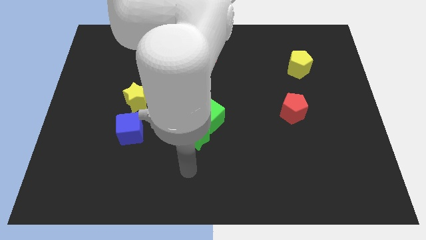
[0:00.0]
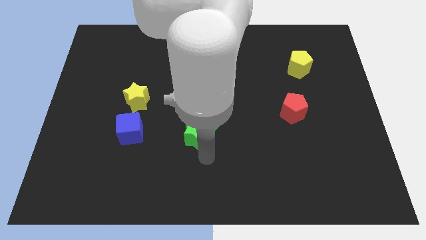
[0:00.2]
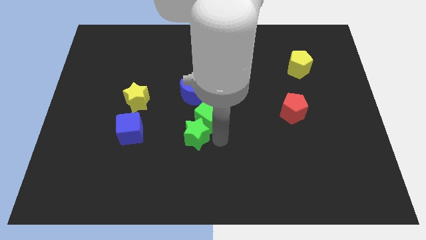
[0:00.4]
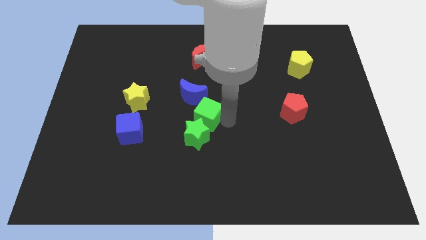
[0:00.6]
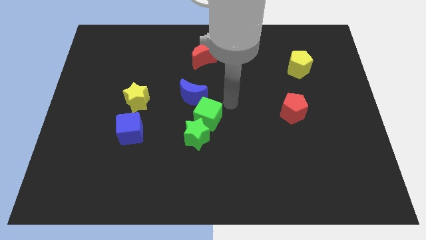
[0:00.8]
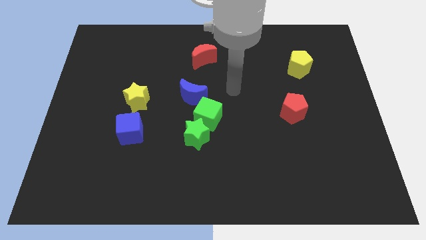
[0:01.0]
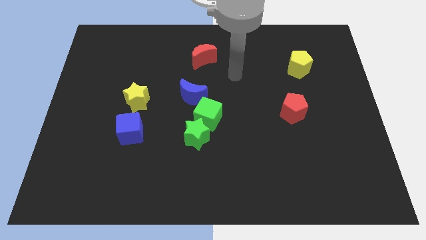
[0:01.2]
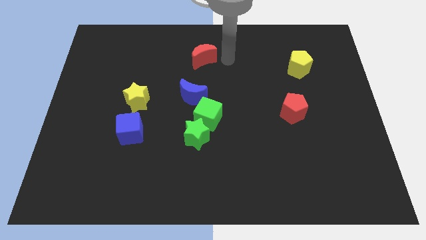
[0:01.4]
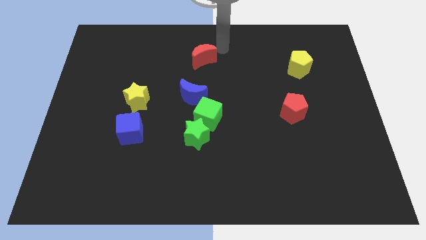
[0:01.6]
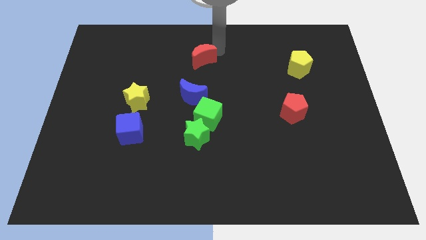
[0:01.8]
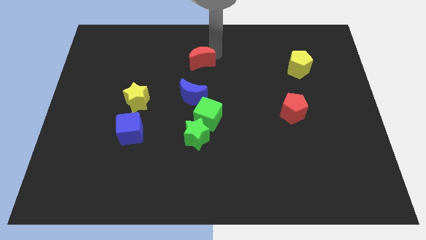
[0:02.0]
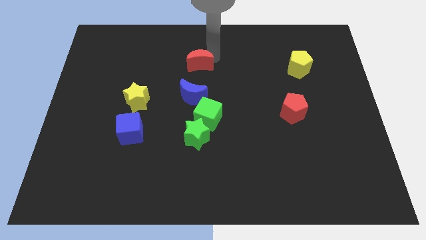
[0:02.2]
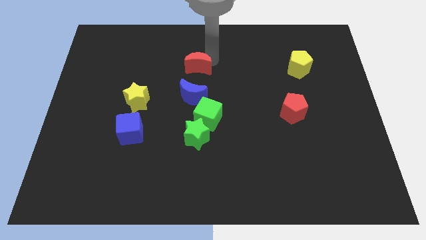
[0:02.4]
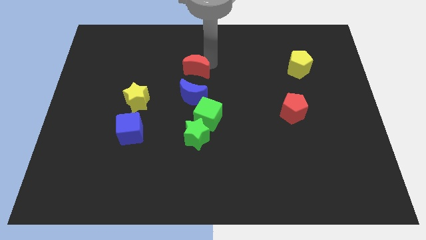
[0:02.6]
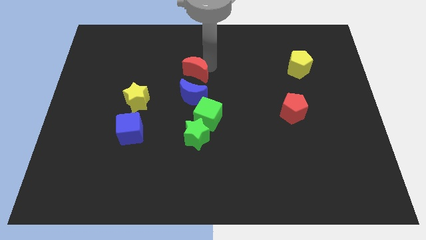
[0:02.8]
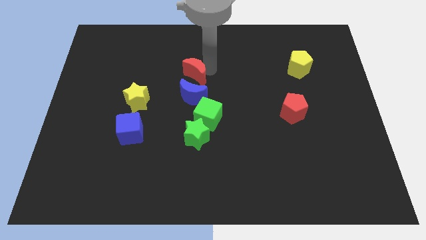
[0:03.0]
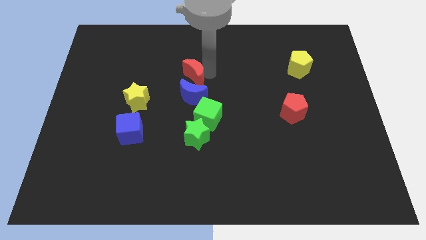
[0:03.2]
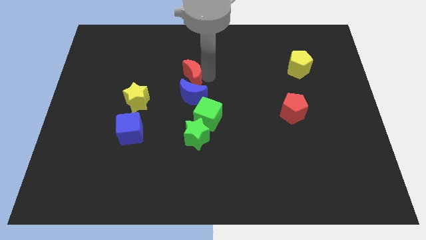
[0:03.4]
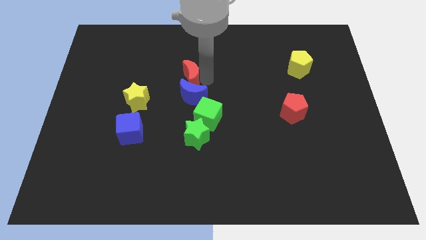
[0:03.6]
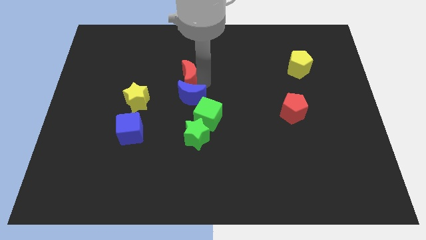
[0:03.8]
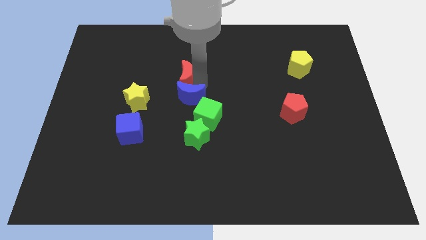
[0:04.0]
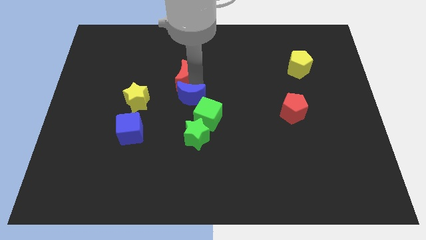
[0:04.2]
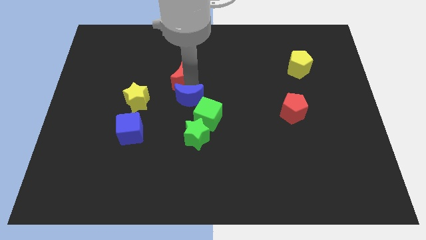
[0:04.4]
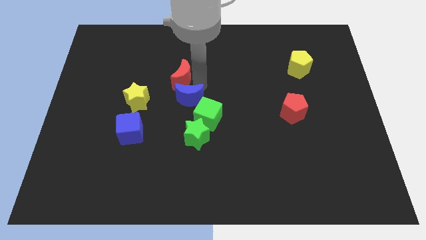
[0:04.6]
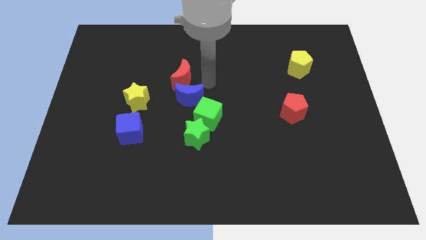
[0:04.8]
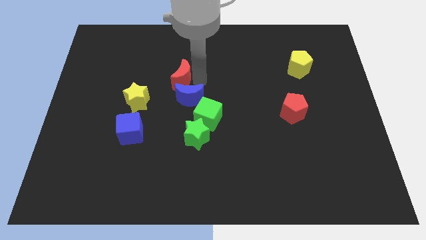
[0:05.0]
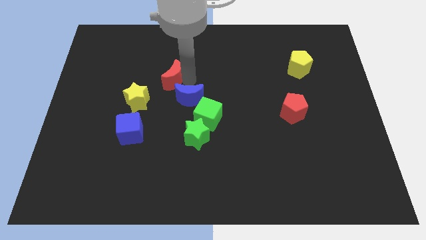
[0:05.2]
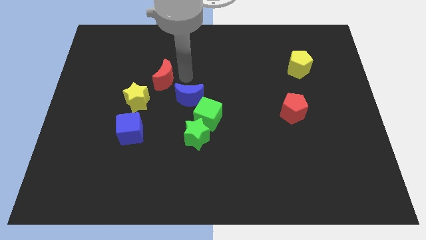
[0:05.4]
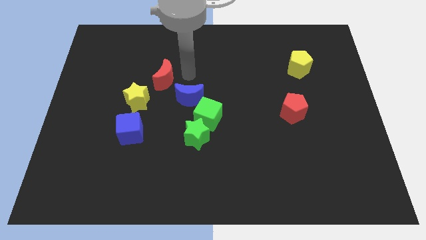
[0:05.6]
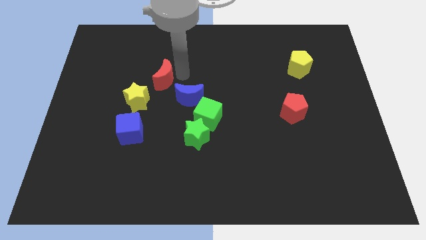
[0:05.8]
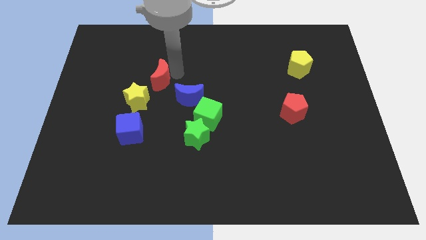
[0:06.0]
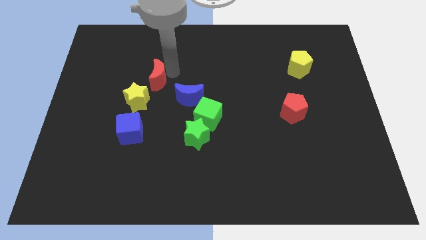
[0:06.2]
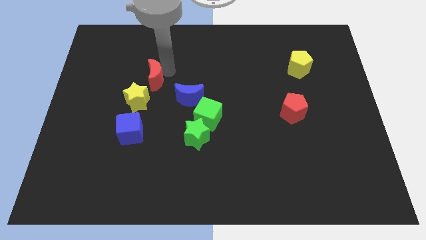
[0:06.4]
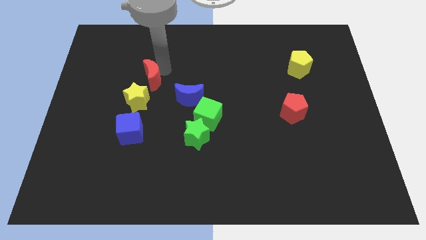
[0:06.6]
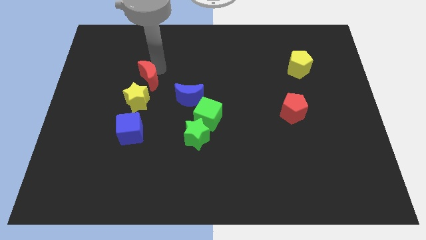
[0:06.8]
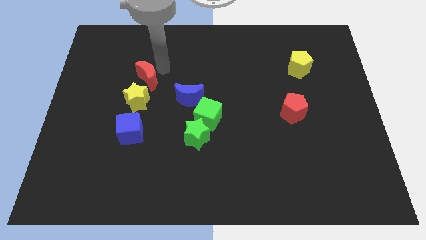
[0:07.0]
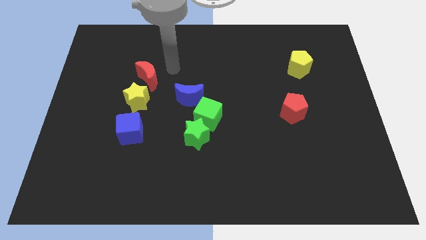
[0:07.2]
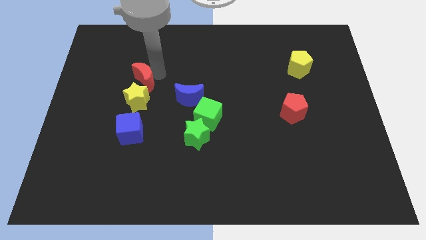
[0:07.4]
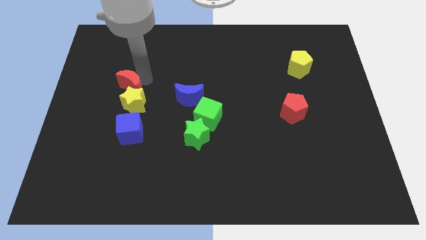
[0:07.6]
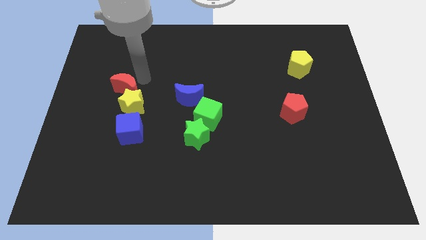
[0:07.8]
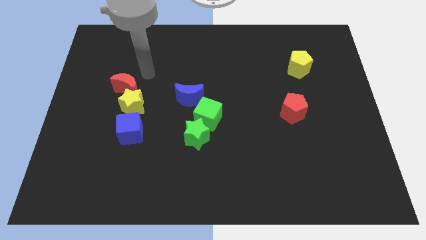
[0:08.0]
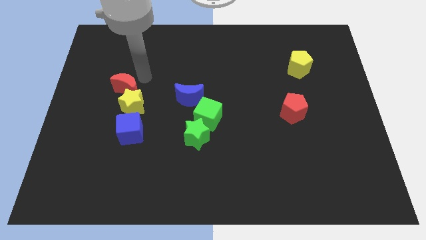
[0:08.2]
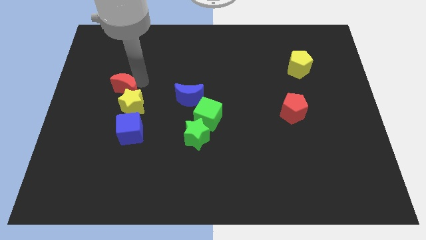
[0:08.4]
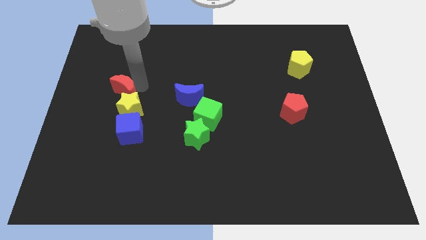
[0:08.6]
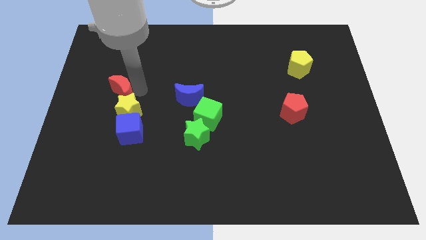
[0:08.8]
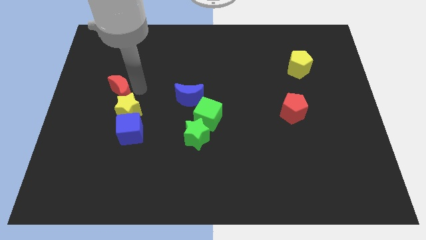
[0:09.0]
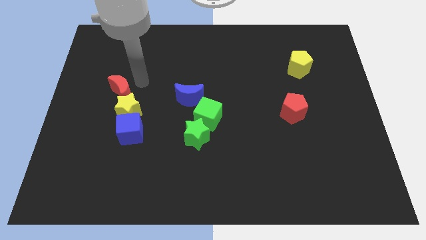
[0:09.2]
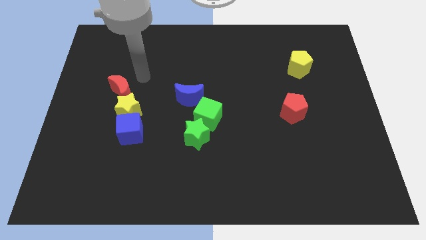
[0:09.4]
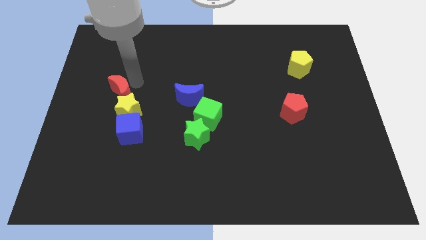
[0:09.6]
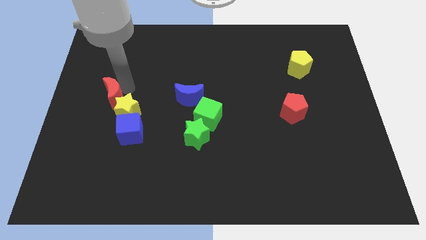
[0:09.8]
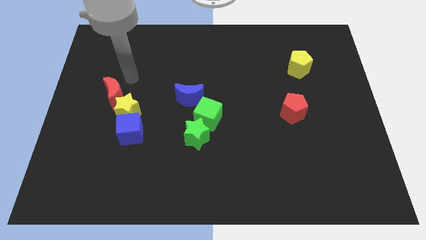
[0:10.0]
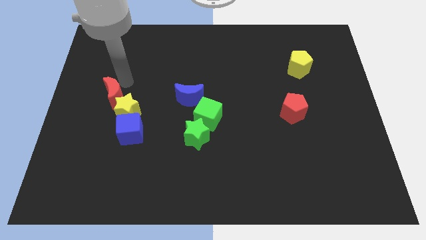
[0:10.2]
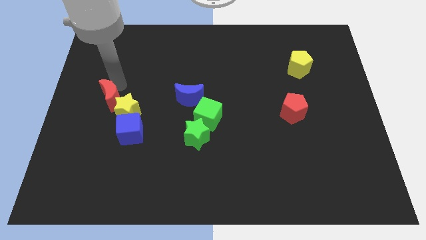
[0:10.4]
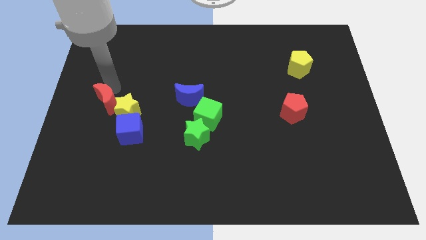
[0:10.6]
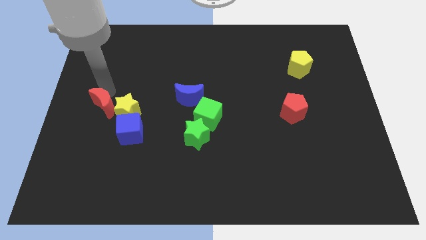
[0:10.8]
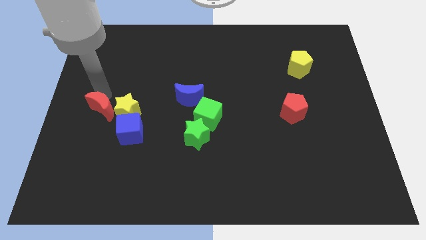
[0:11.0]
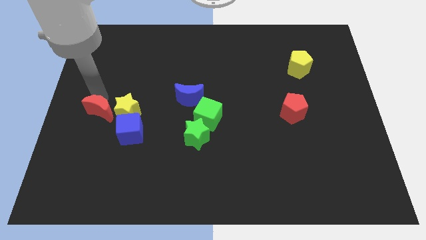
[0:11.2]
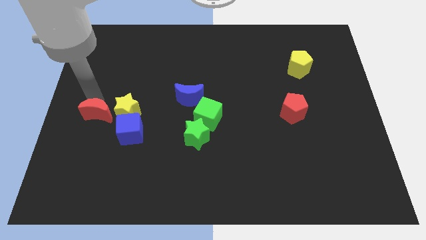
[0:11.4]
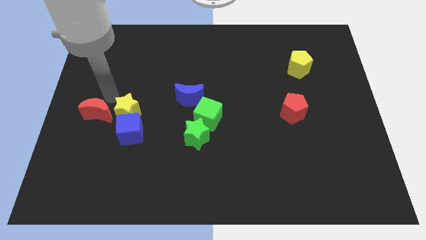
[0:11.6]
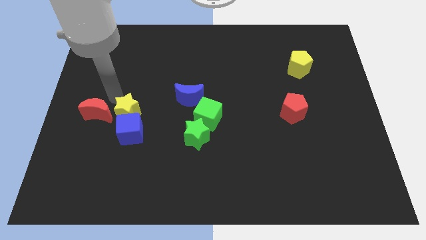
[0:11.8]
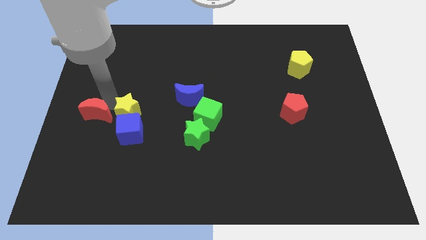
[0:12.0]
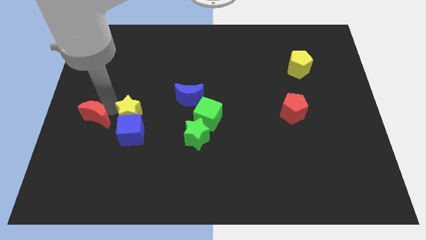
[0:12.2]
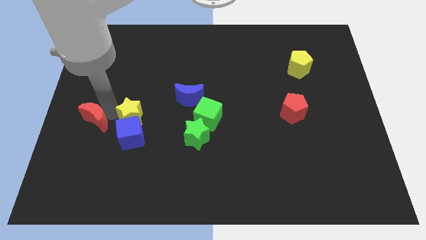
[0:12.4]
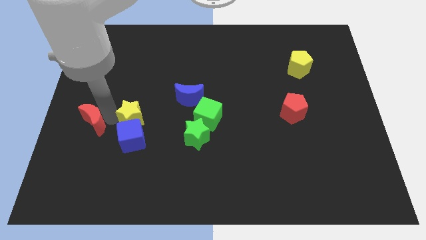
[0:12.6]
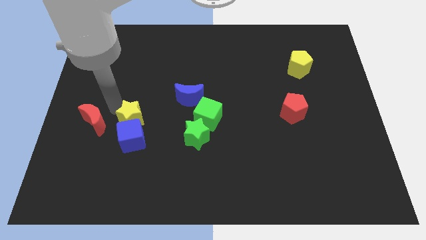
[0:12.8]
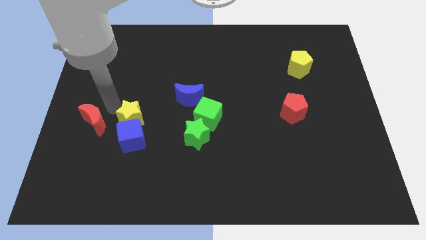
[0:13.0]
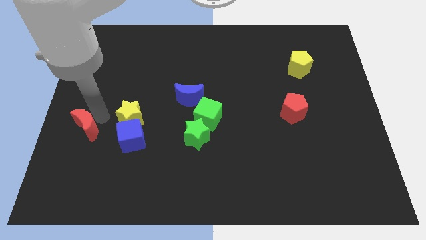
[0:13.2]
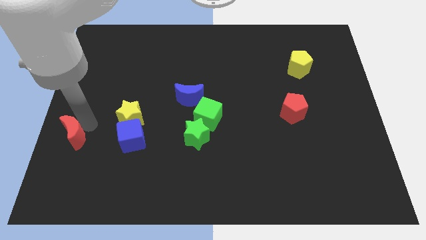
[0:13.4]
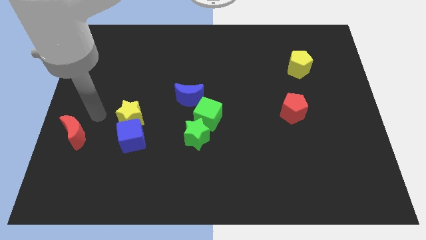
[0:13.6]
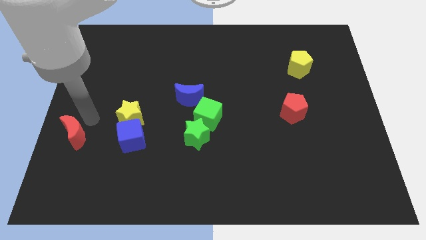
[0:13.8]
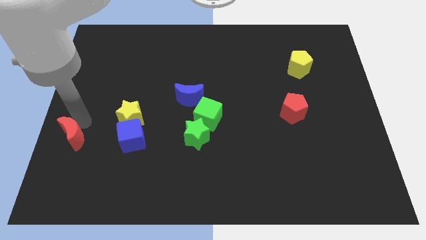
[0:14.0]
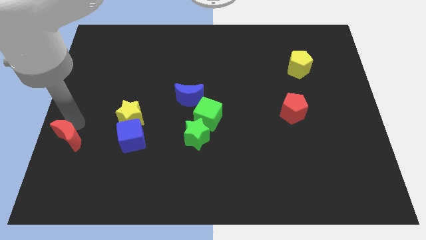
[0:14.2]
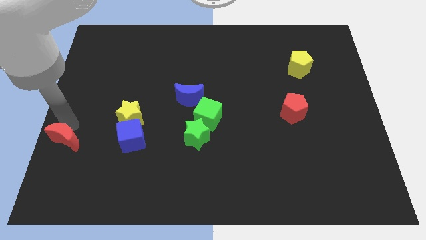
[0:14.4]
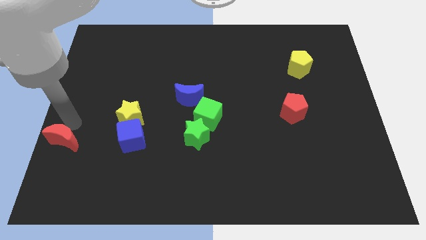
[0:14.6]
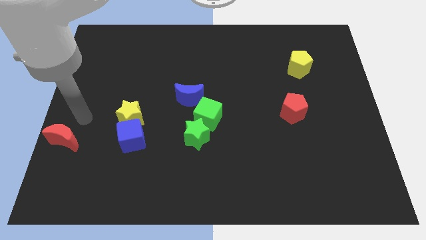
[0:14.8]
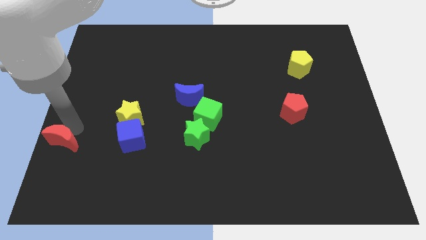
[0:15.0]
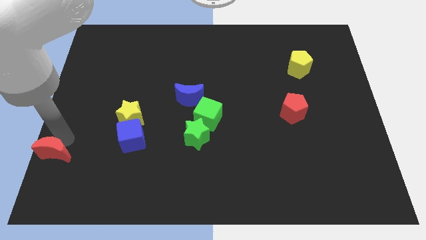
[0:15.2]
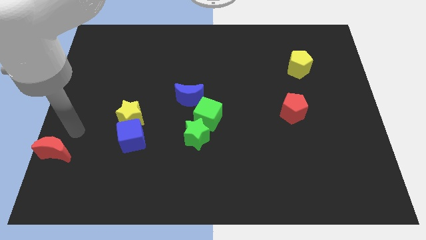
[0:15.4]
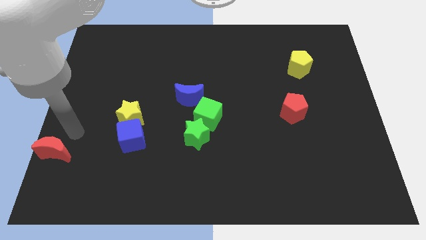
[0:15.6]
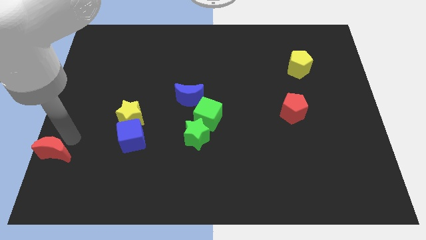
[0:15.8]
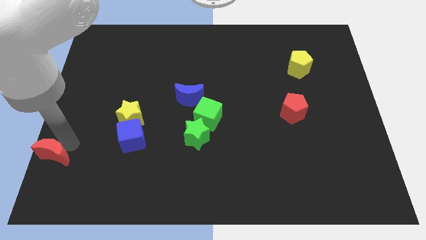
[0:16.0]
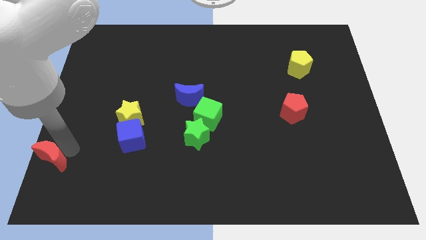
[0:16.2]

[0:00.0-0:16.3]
move the red moon to the bottom left
